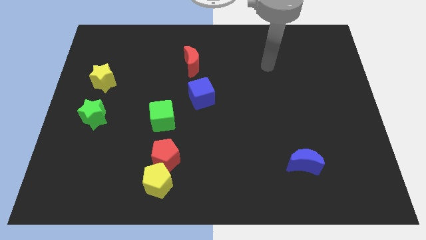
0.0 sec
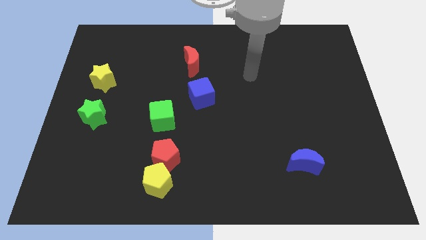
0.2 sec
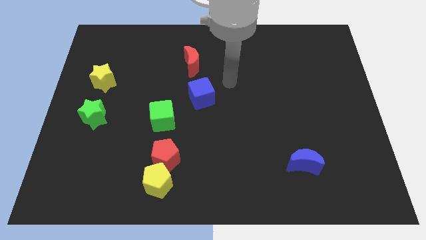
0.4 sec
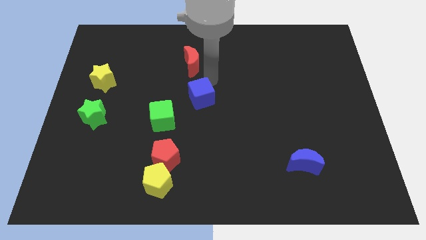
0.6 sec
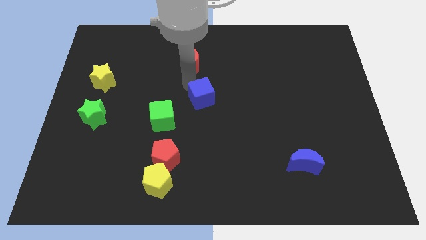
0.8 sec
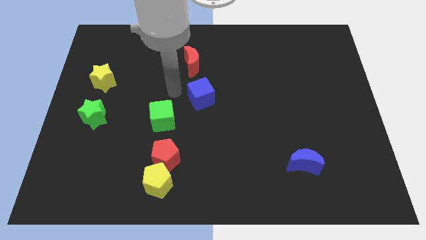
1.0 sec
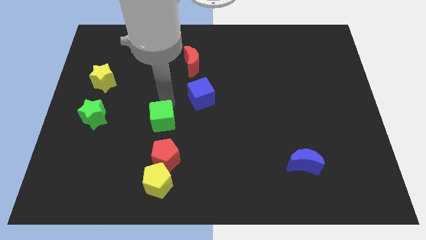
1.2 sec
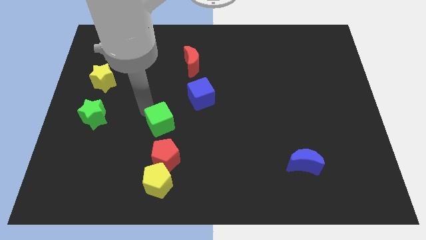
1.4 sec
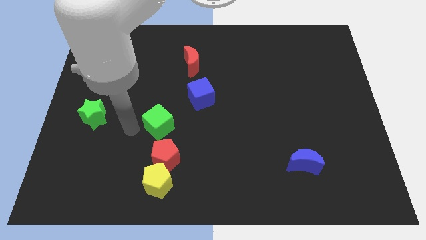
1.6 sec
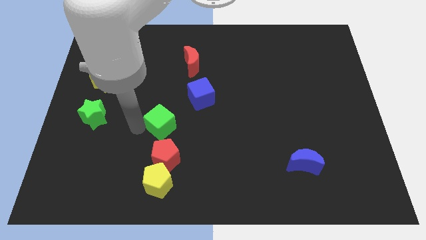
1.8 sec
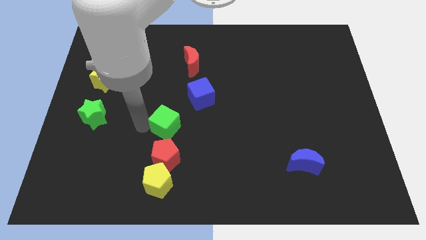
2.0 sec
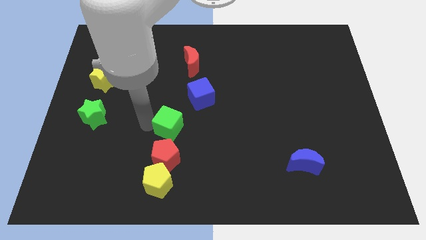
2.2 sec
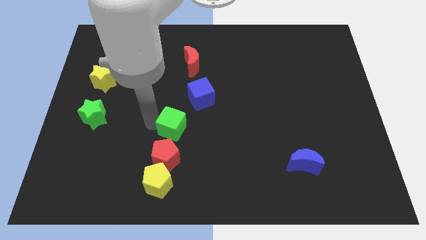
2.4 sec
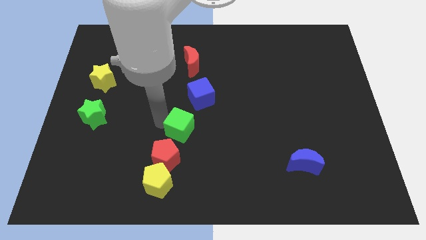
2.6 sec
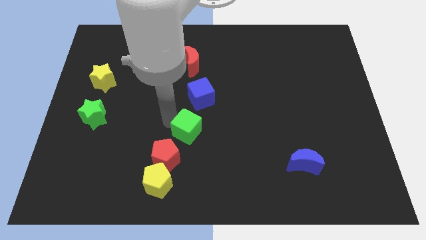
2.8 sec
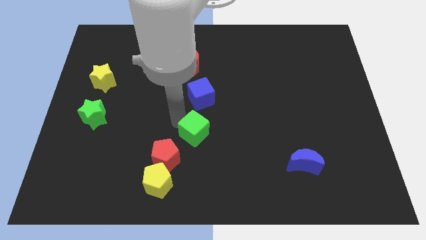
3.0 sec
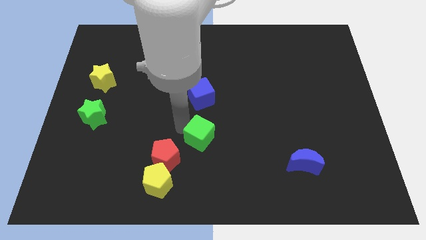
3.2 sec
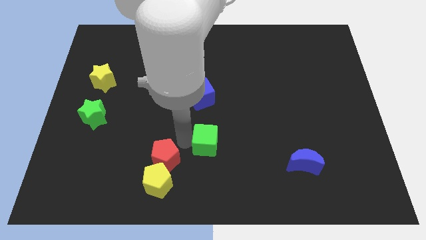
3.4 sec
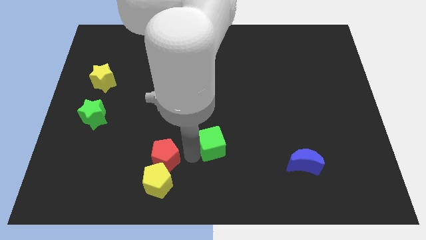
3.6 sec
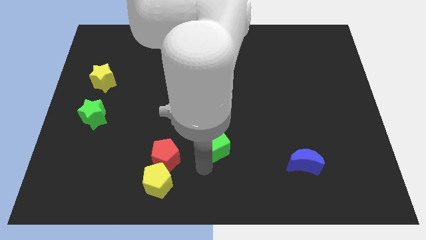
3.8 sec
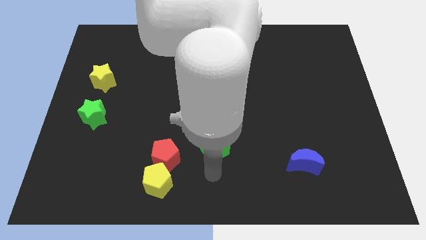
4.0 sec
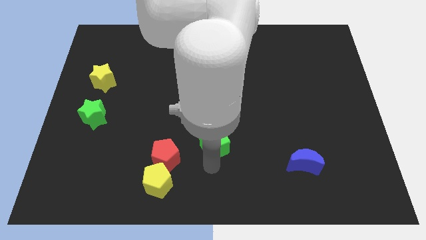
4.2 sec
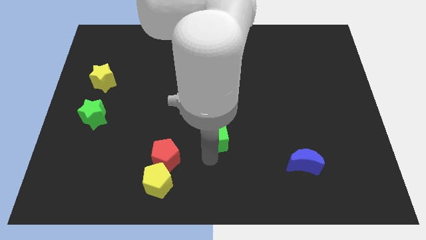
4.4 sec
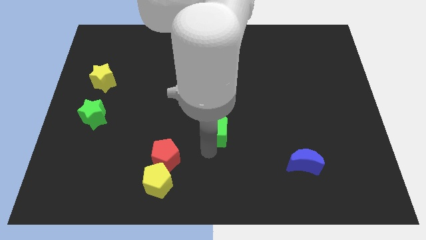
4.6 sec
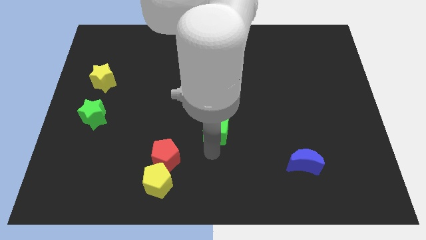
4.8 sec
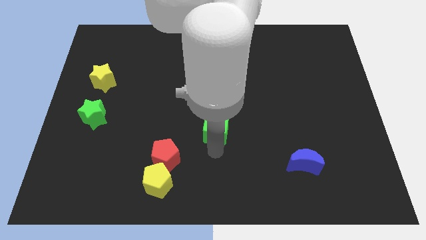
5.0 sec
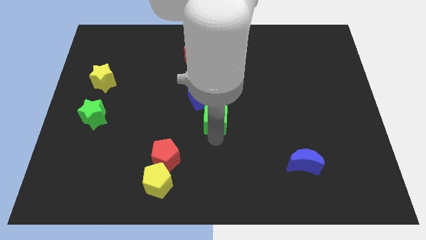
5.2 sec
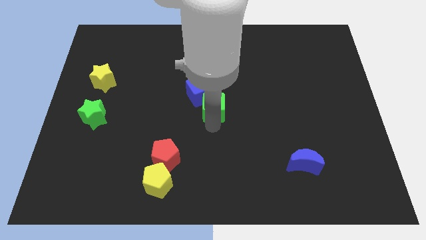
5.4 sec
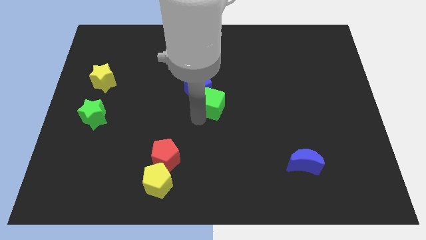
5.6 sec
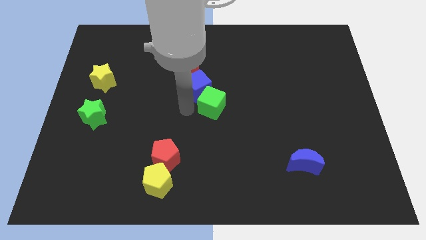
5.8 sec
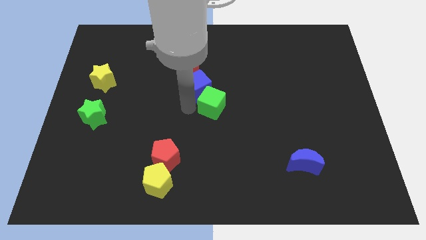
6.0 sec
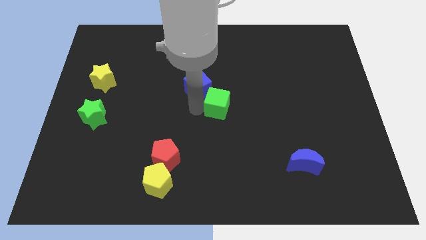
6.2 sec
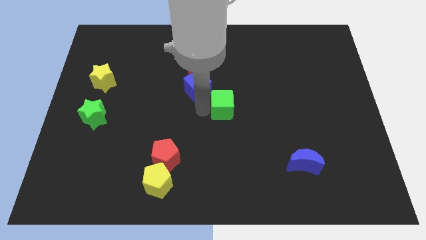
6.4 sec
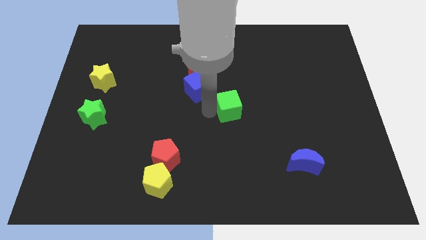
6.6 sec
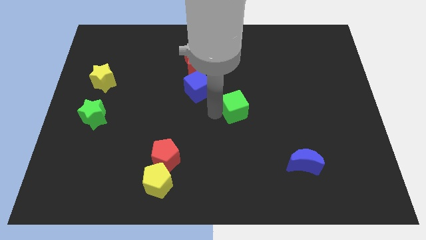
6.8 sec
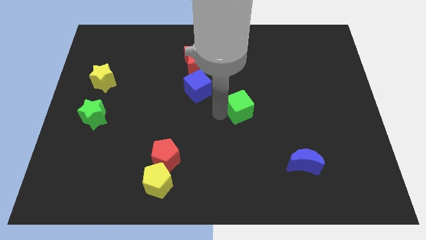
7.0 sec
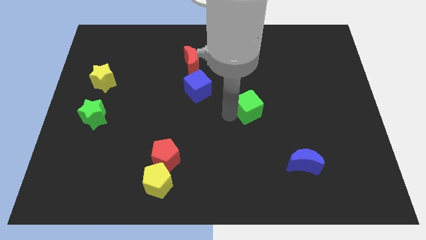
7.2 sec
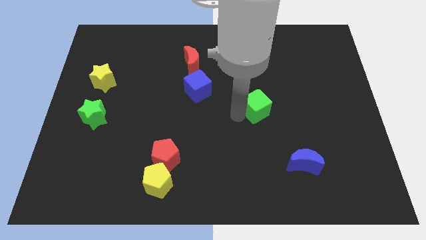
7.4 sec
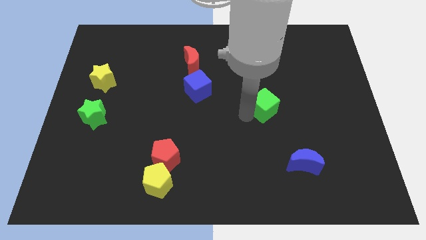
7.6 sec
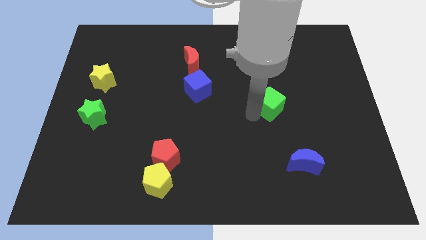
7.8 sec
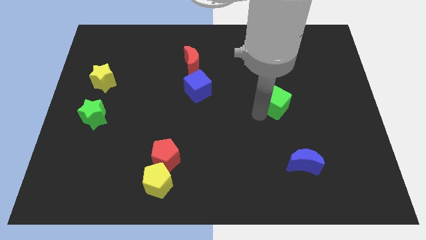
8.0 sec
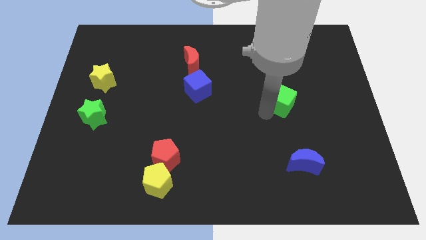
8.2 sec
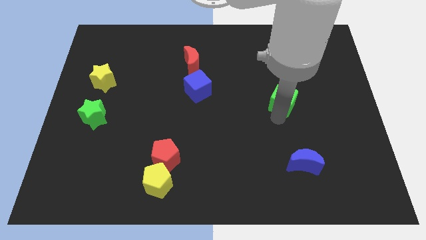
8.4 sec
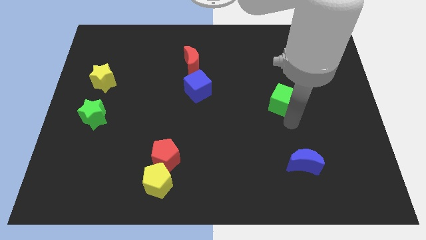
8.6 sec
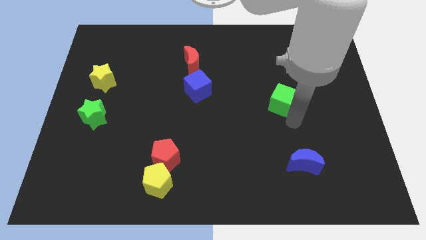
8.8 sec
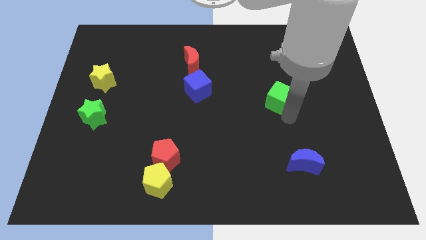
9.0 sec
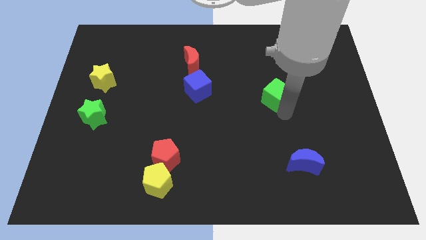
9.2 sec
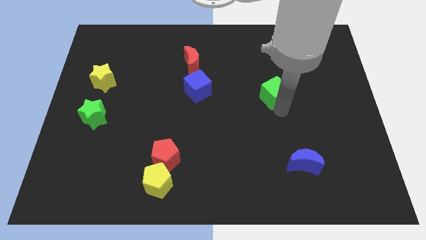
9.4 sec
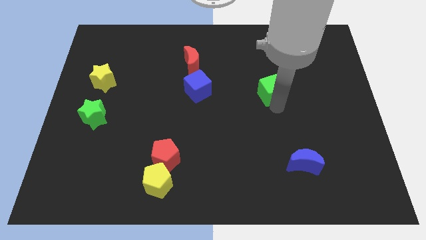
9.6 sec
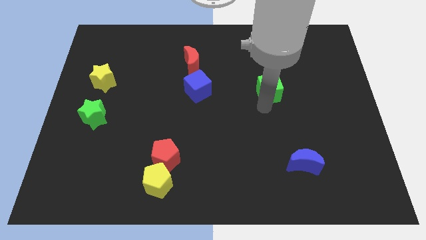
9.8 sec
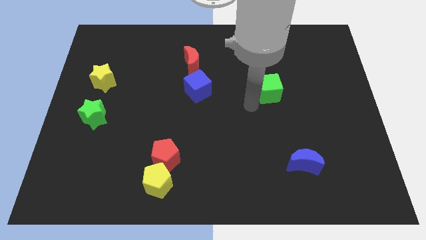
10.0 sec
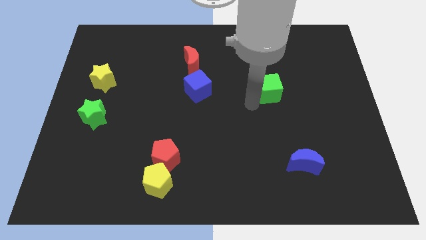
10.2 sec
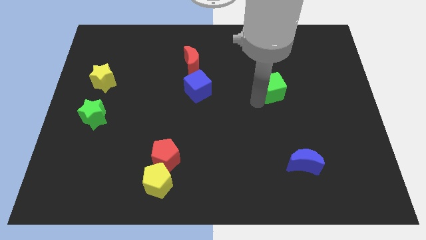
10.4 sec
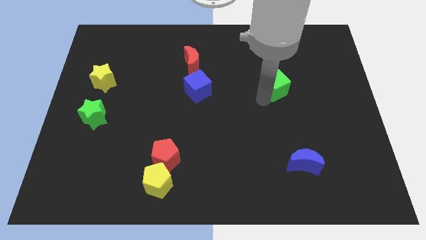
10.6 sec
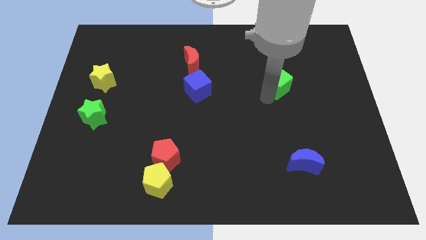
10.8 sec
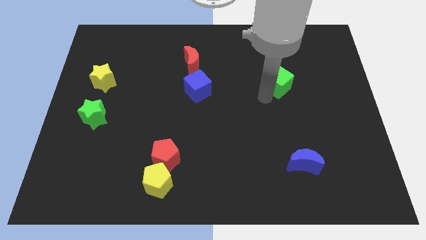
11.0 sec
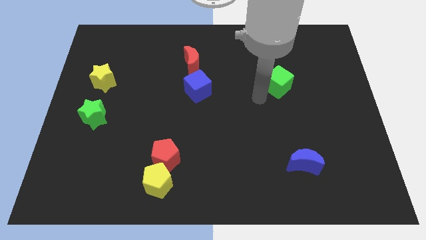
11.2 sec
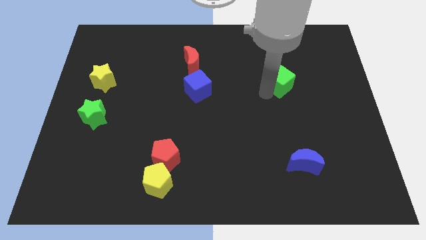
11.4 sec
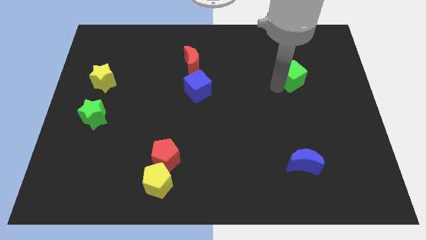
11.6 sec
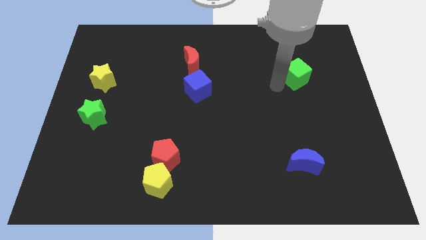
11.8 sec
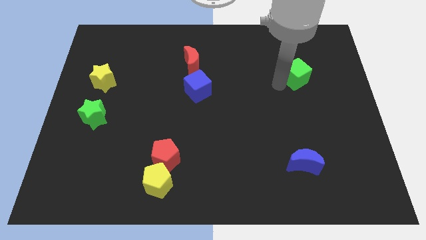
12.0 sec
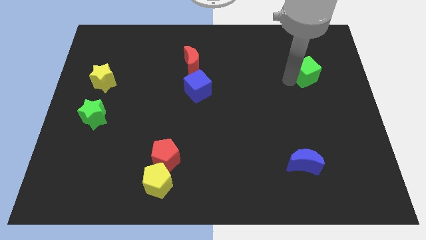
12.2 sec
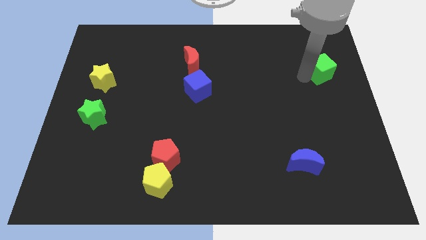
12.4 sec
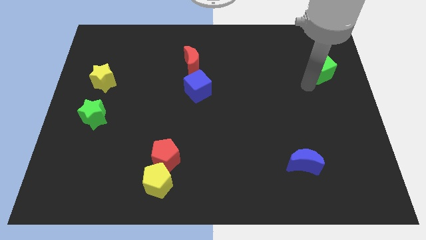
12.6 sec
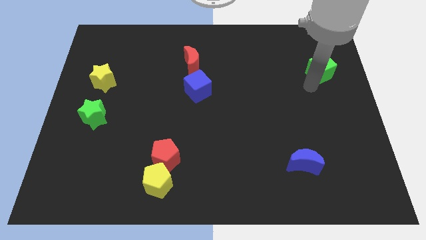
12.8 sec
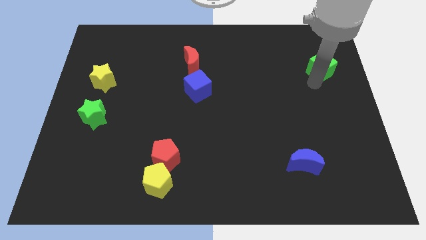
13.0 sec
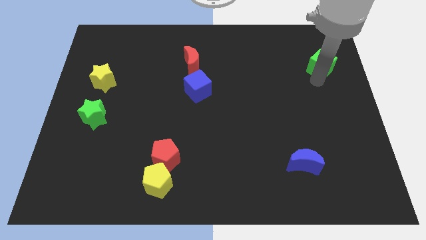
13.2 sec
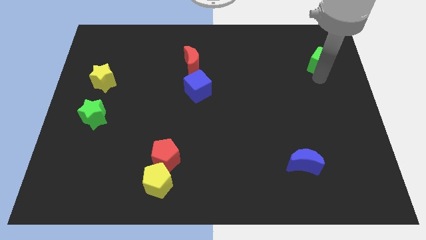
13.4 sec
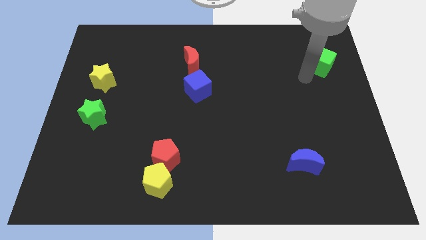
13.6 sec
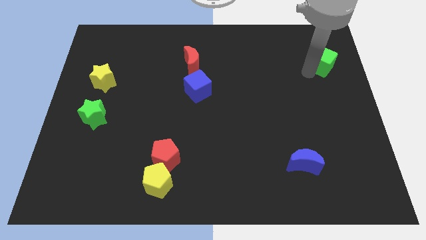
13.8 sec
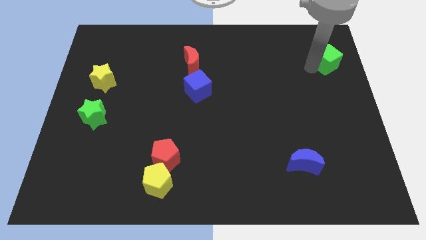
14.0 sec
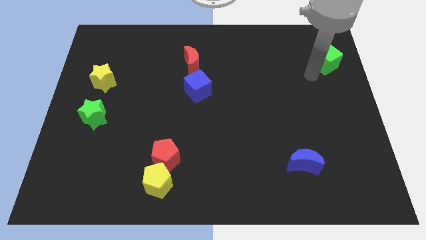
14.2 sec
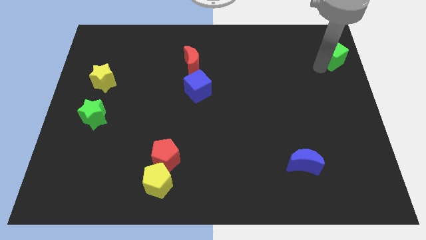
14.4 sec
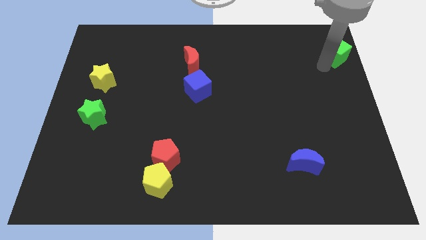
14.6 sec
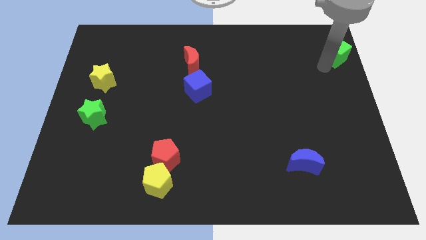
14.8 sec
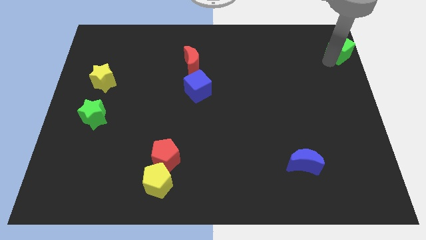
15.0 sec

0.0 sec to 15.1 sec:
put the green cube to the top right corner
